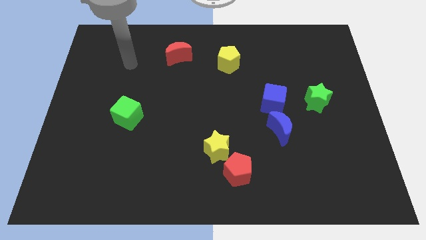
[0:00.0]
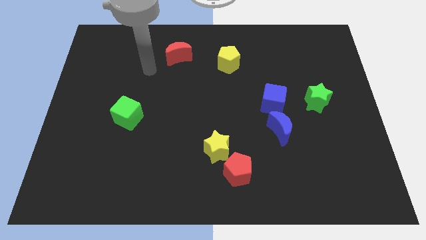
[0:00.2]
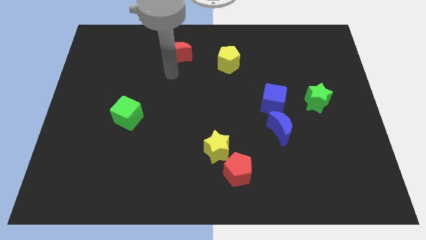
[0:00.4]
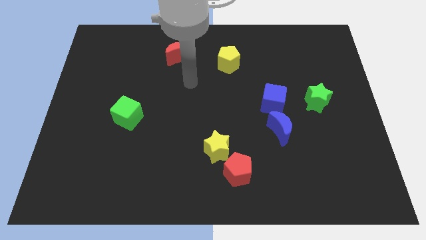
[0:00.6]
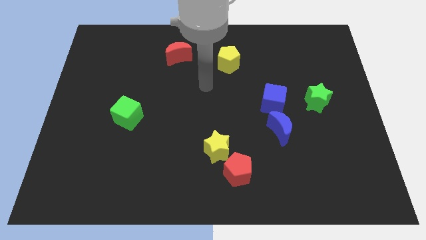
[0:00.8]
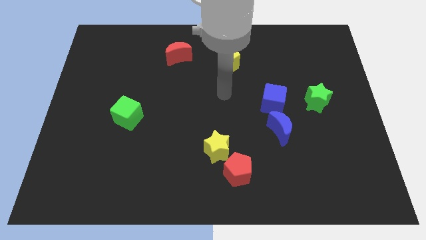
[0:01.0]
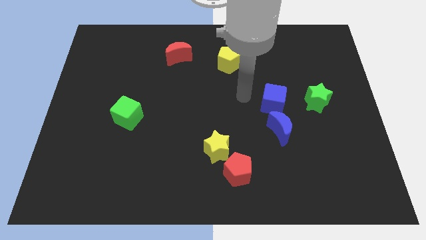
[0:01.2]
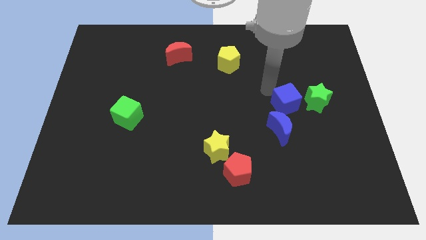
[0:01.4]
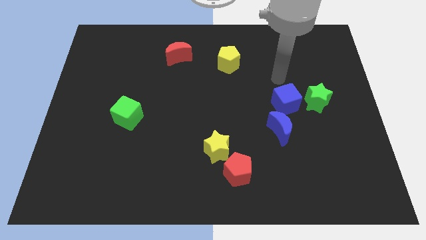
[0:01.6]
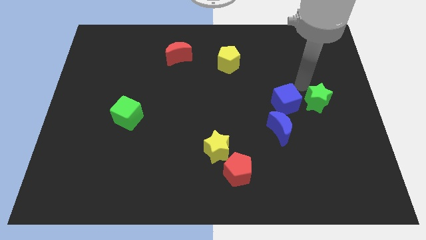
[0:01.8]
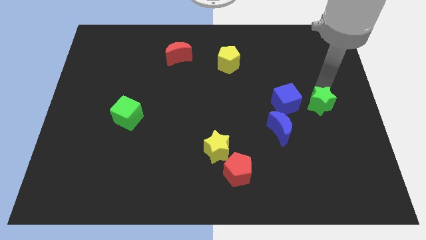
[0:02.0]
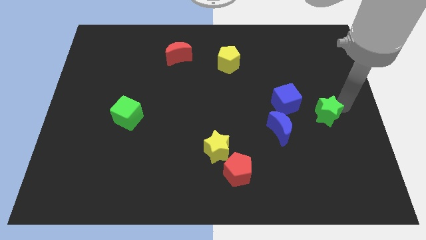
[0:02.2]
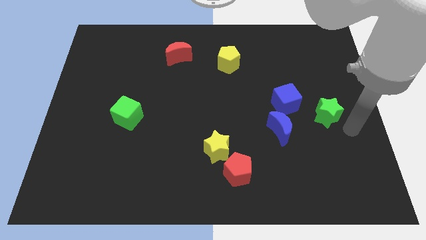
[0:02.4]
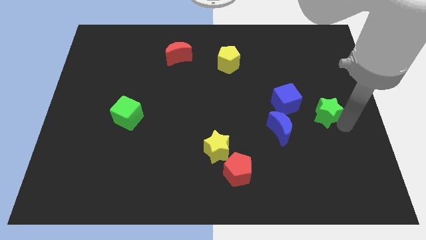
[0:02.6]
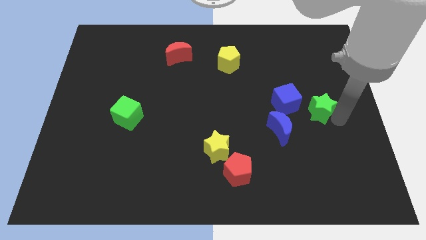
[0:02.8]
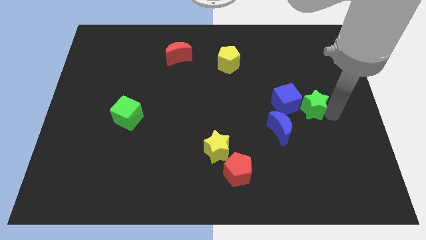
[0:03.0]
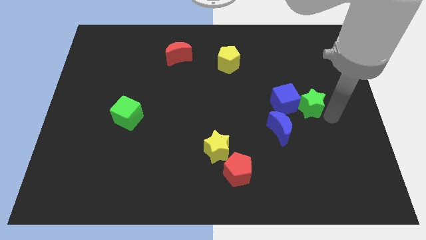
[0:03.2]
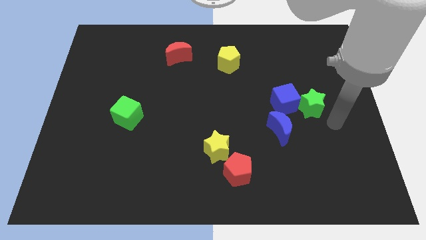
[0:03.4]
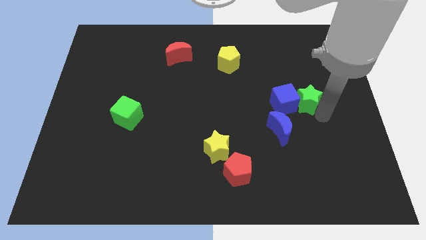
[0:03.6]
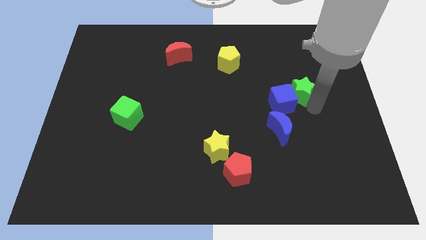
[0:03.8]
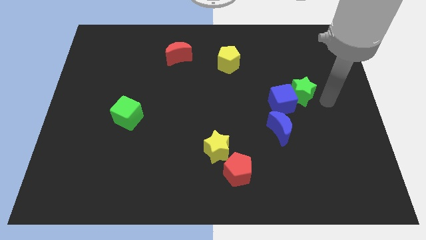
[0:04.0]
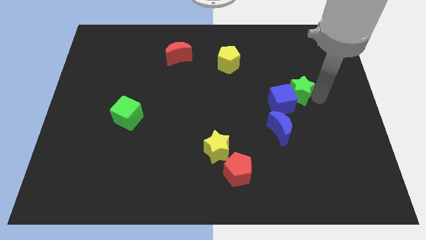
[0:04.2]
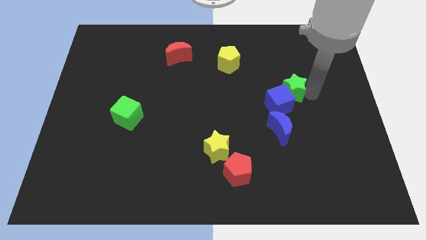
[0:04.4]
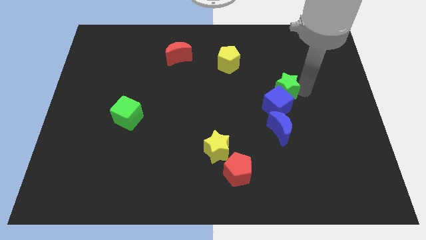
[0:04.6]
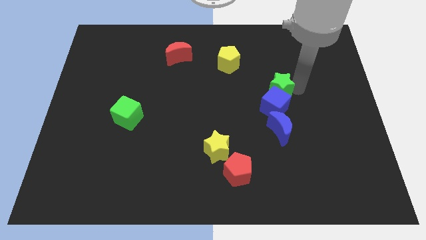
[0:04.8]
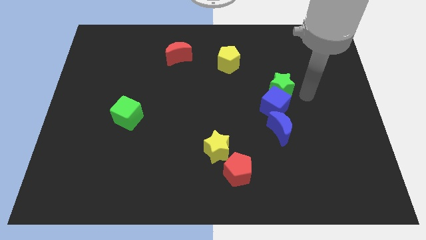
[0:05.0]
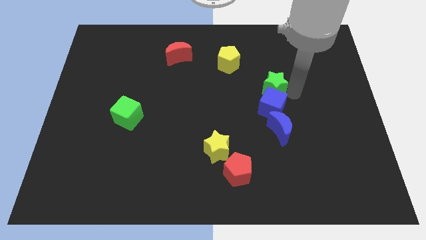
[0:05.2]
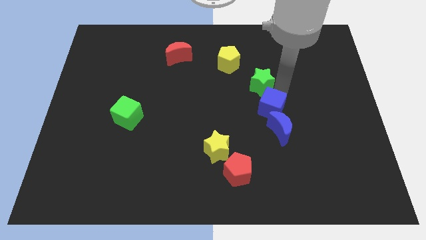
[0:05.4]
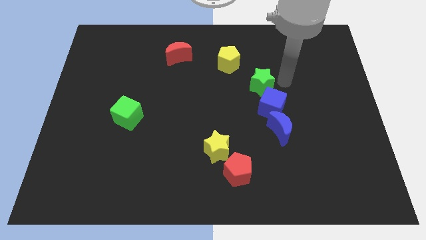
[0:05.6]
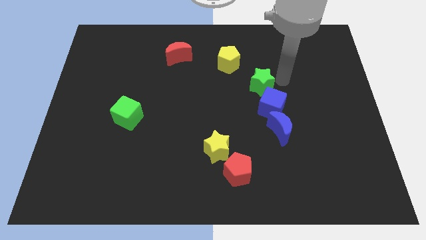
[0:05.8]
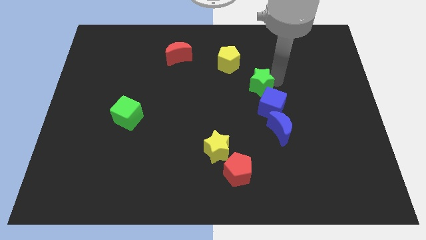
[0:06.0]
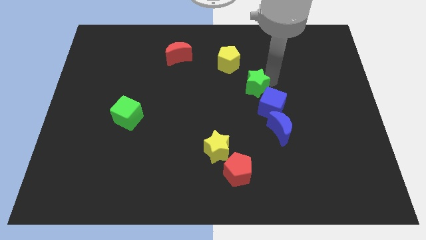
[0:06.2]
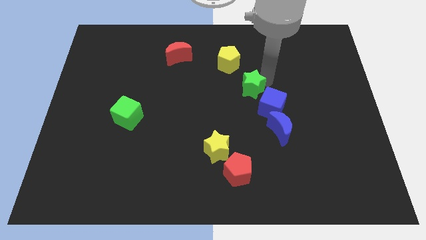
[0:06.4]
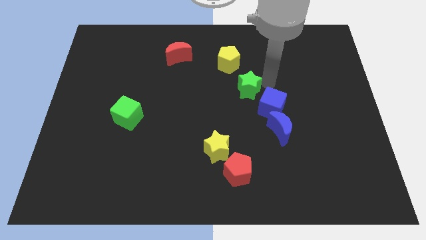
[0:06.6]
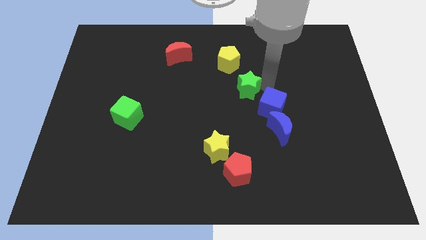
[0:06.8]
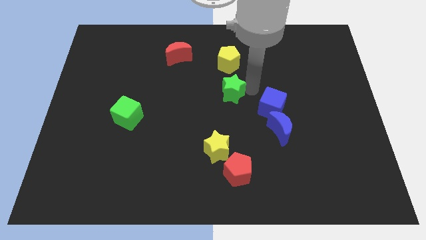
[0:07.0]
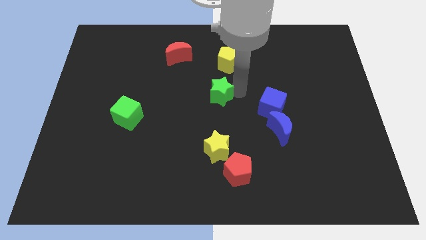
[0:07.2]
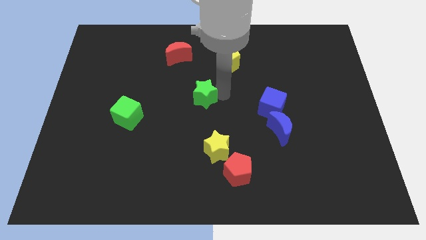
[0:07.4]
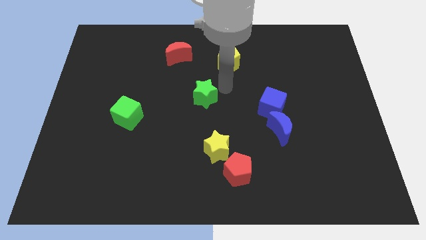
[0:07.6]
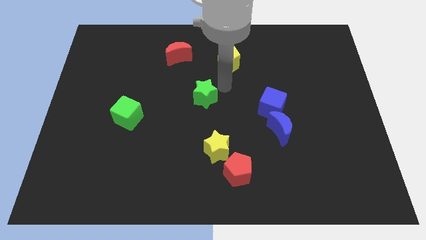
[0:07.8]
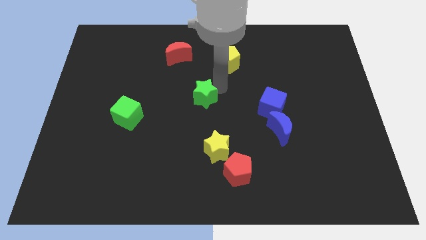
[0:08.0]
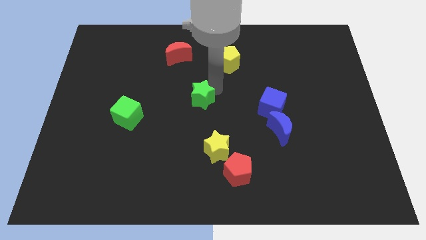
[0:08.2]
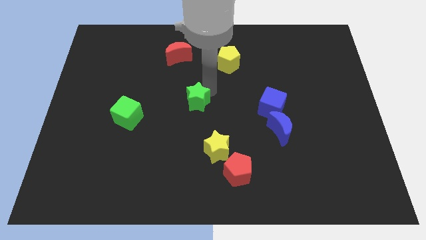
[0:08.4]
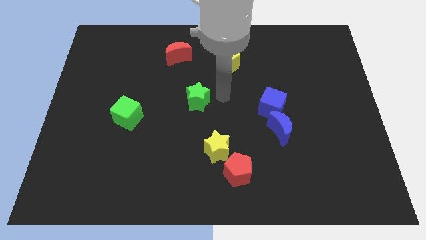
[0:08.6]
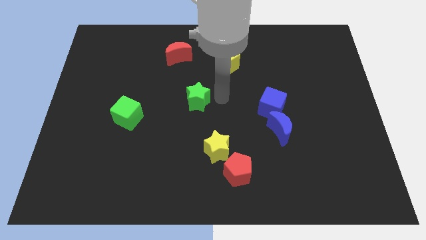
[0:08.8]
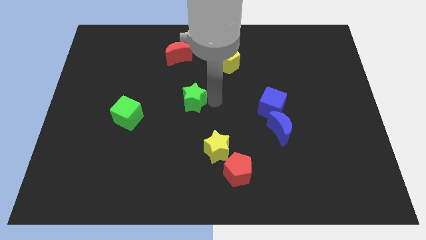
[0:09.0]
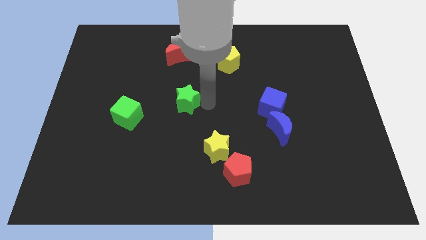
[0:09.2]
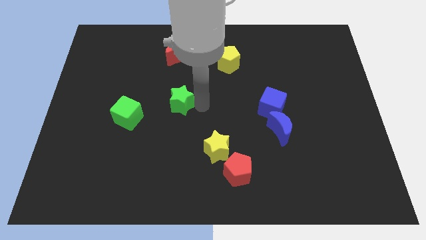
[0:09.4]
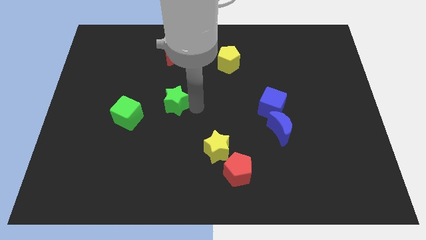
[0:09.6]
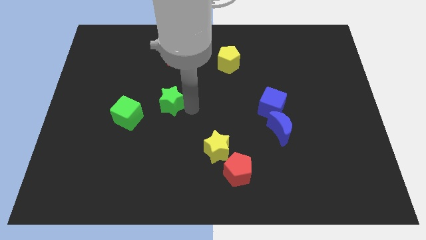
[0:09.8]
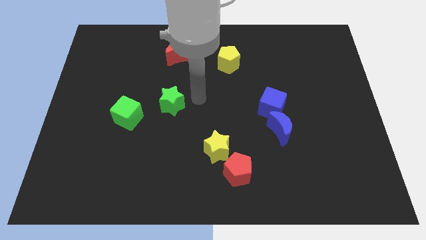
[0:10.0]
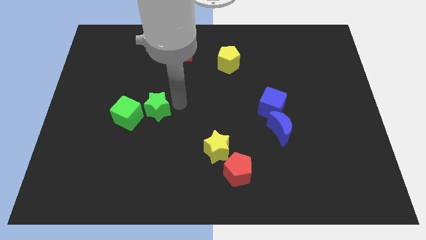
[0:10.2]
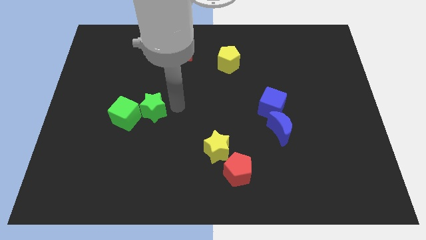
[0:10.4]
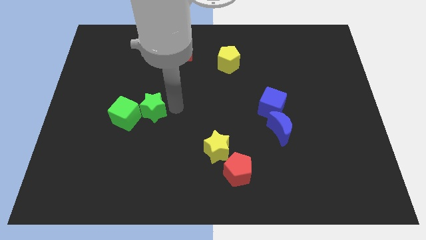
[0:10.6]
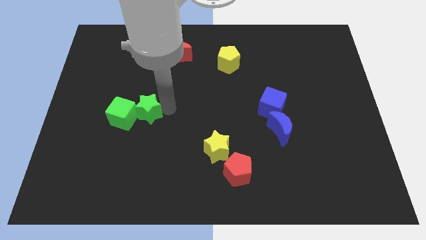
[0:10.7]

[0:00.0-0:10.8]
push the green star towards the green cube

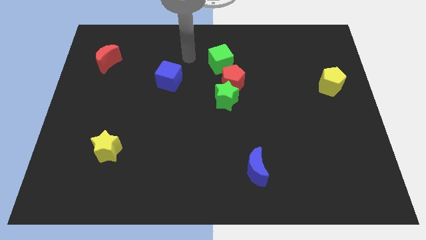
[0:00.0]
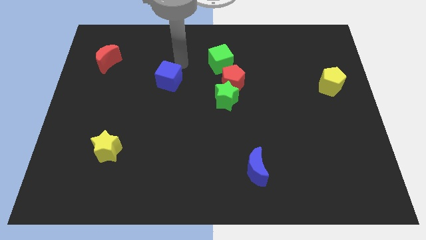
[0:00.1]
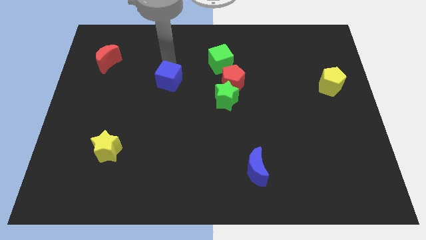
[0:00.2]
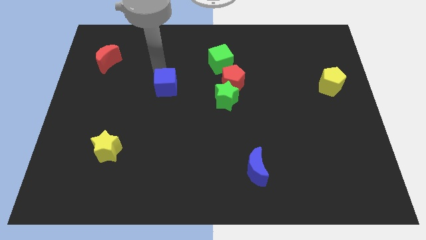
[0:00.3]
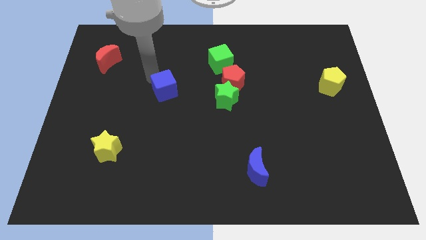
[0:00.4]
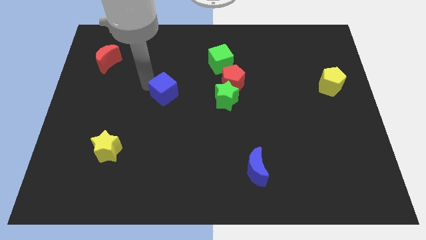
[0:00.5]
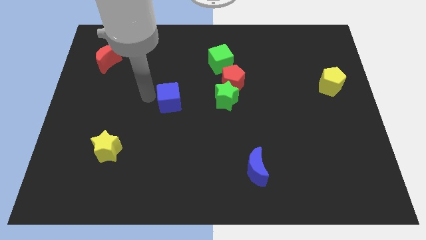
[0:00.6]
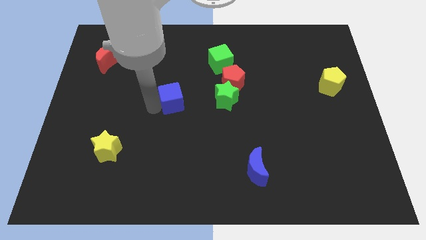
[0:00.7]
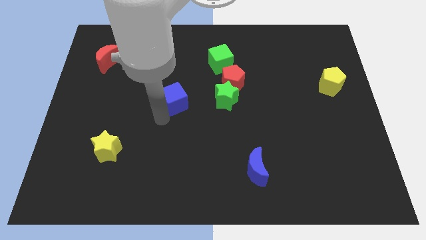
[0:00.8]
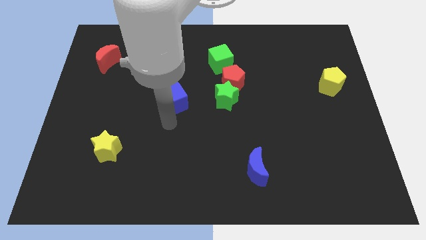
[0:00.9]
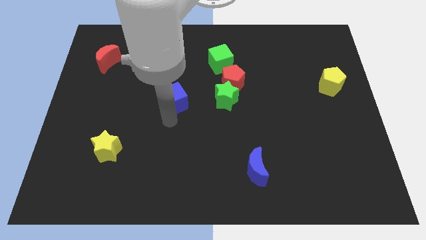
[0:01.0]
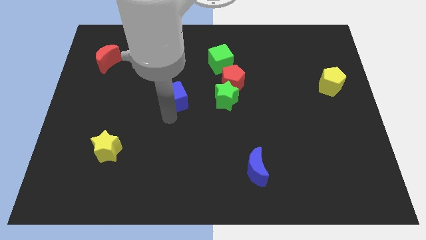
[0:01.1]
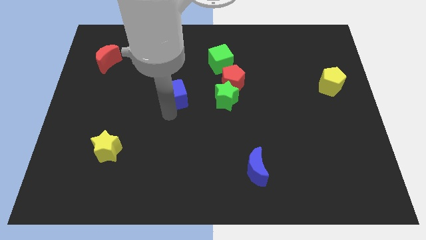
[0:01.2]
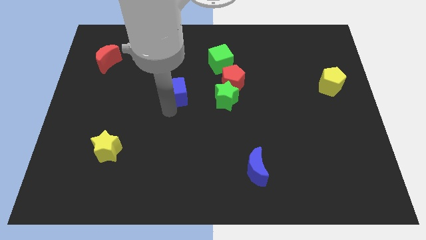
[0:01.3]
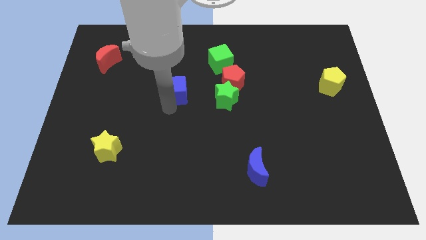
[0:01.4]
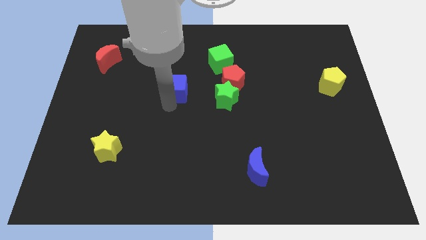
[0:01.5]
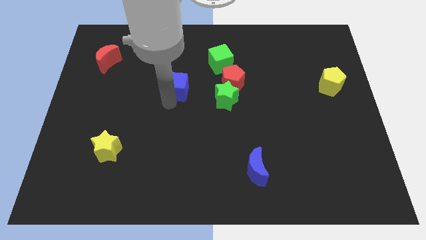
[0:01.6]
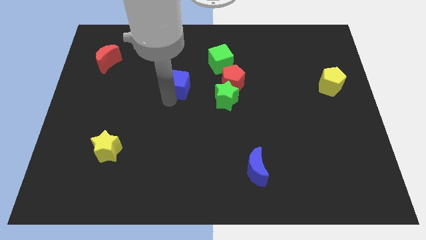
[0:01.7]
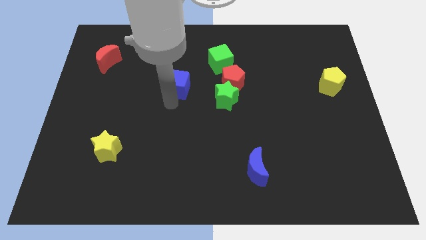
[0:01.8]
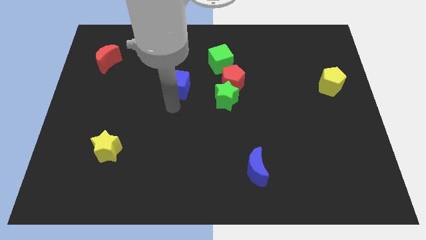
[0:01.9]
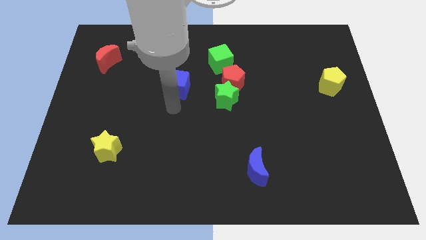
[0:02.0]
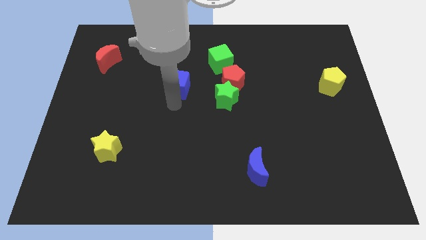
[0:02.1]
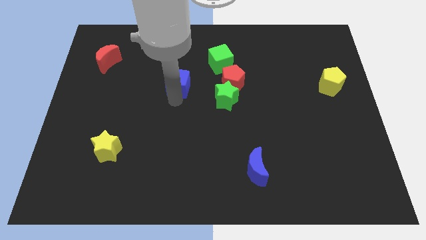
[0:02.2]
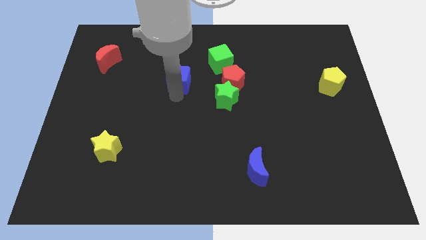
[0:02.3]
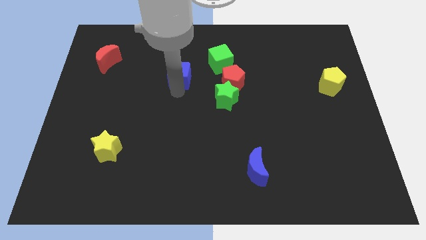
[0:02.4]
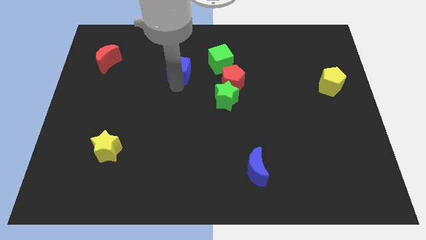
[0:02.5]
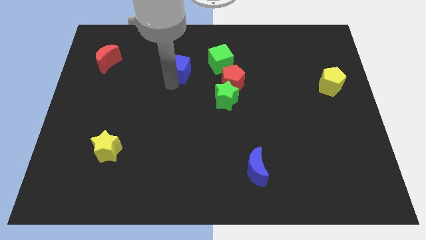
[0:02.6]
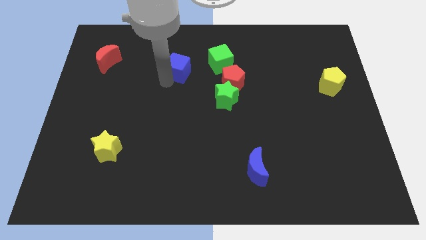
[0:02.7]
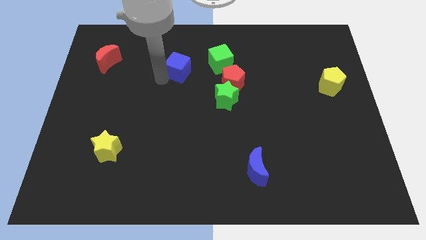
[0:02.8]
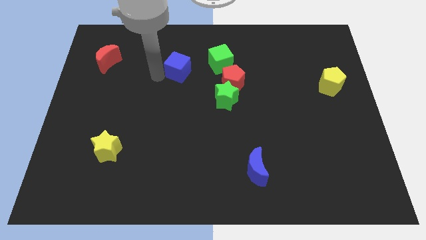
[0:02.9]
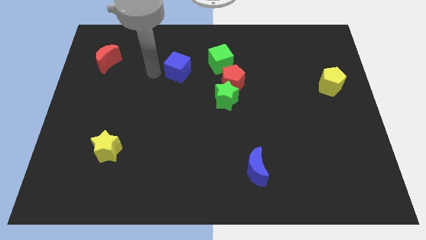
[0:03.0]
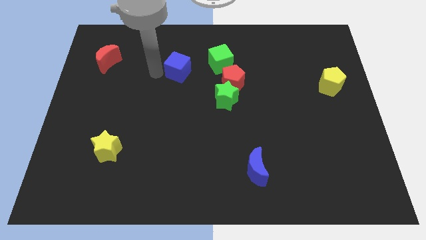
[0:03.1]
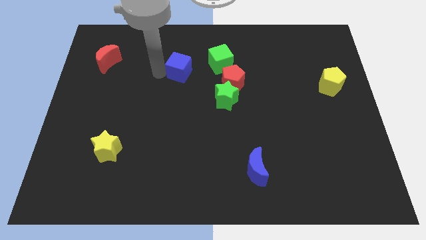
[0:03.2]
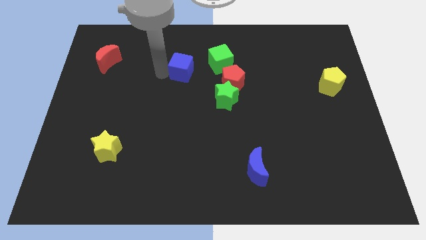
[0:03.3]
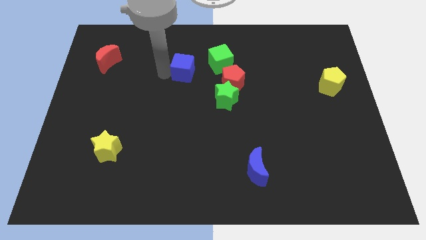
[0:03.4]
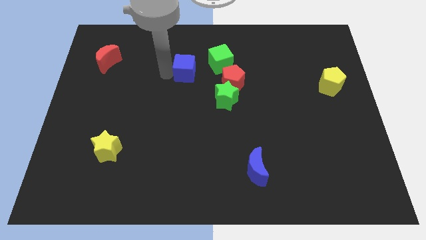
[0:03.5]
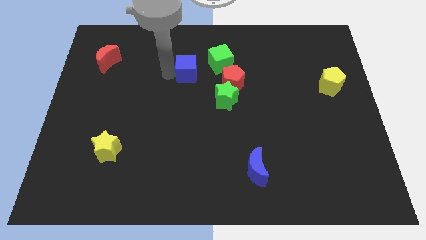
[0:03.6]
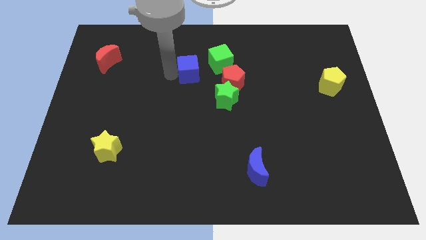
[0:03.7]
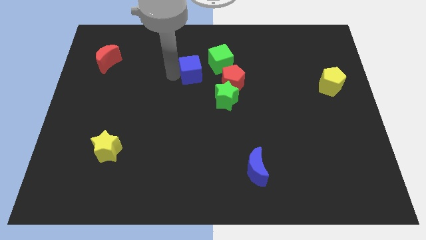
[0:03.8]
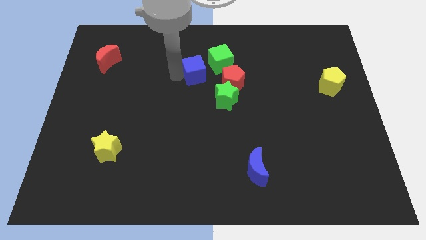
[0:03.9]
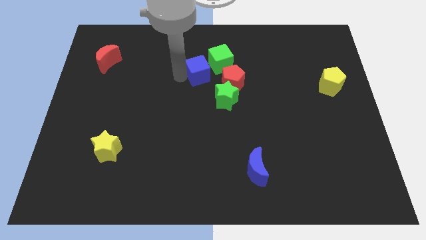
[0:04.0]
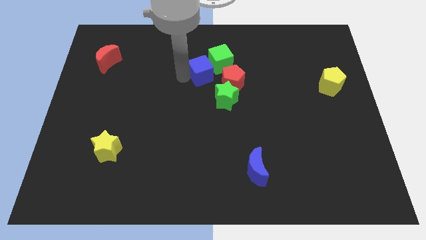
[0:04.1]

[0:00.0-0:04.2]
move the blue cube close to the green cube
